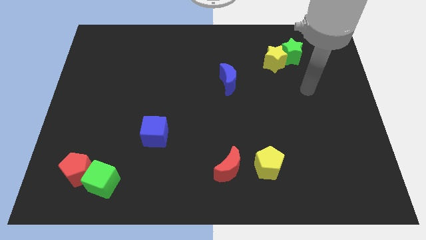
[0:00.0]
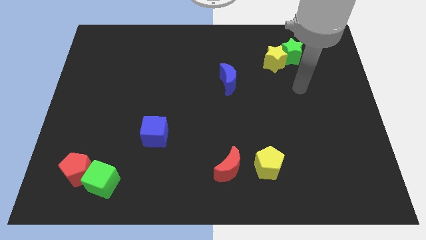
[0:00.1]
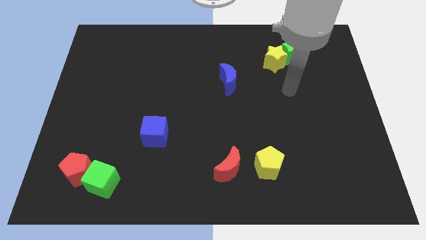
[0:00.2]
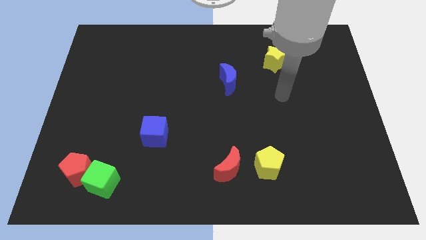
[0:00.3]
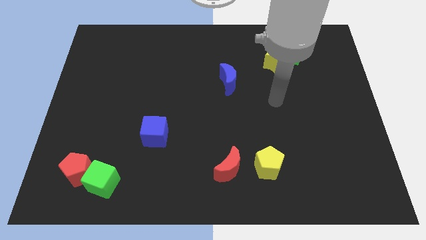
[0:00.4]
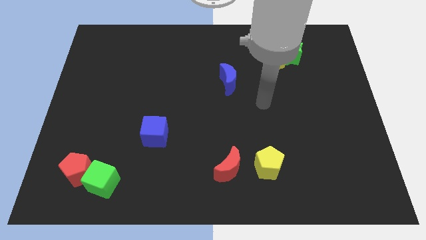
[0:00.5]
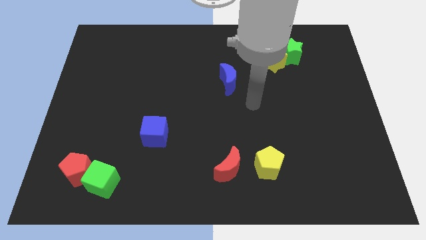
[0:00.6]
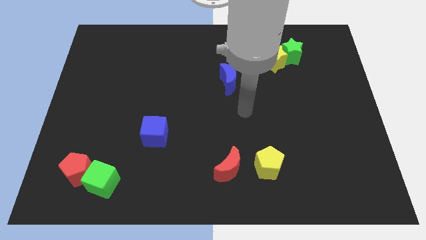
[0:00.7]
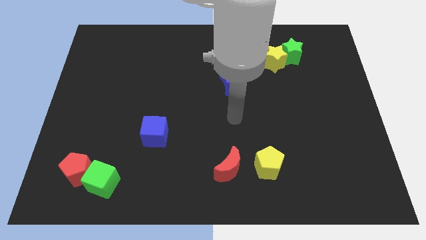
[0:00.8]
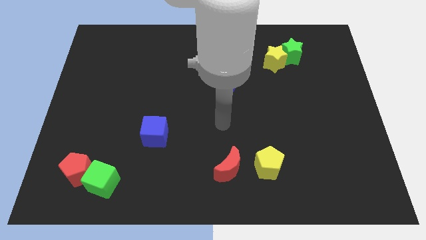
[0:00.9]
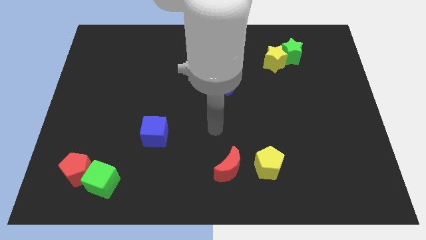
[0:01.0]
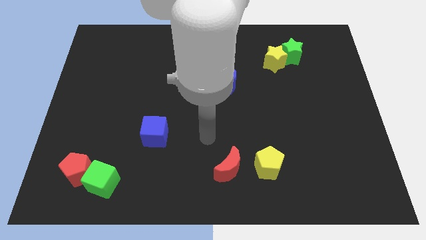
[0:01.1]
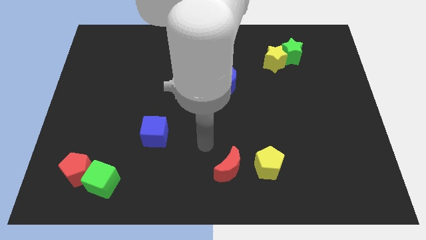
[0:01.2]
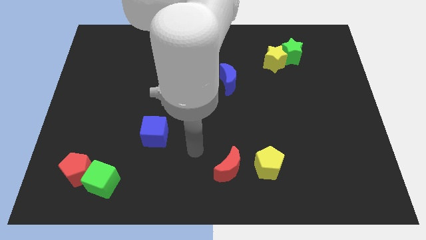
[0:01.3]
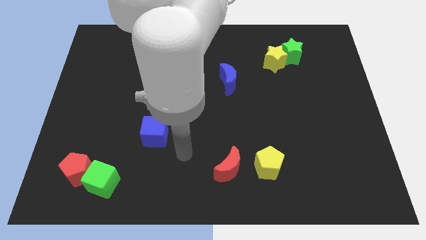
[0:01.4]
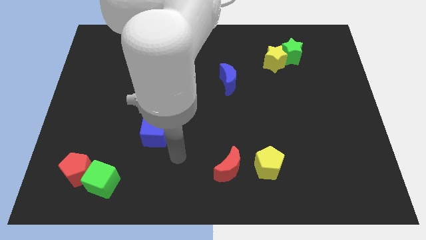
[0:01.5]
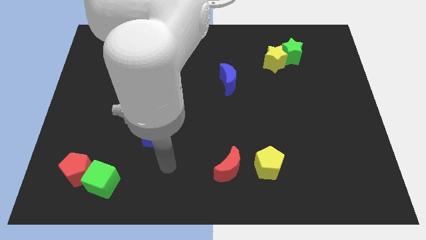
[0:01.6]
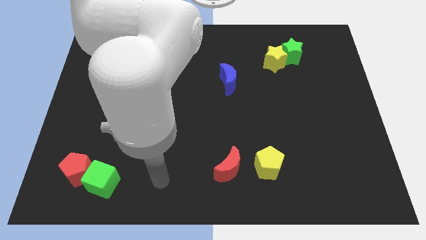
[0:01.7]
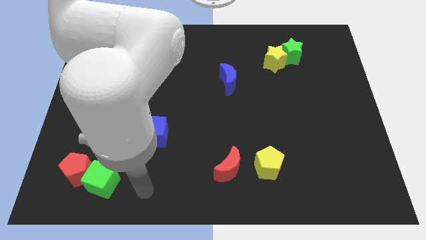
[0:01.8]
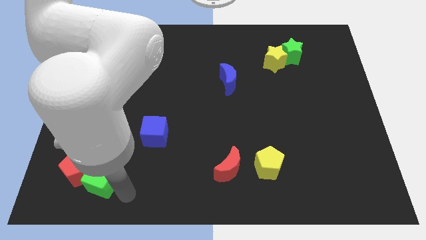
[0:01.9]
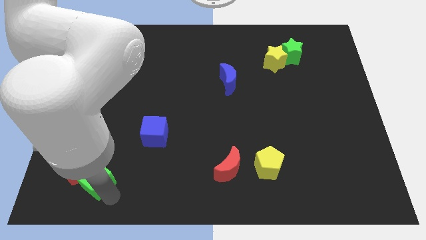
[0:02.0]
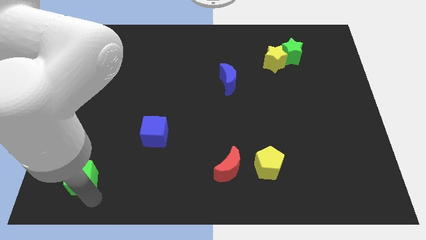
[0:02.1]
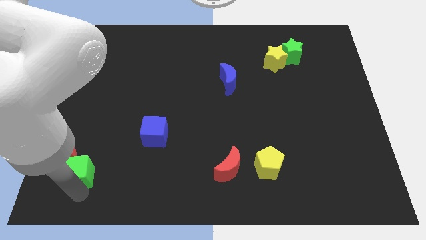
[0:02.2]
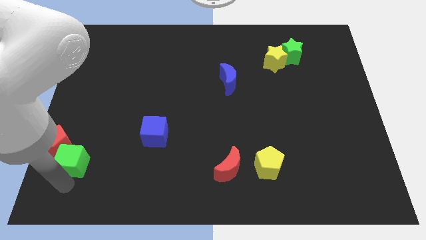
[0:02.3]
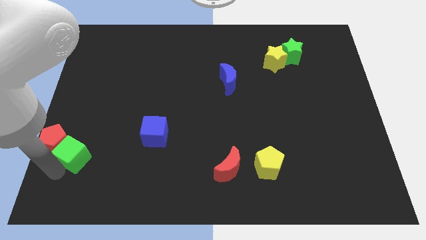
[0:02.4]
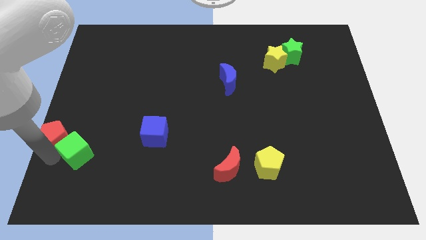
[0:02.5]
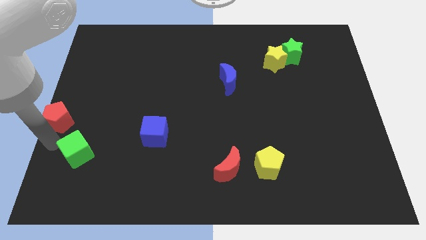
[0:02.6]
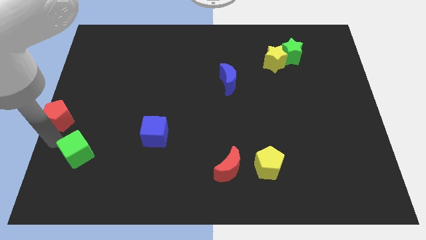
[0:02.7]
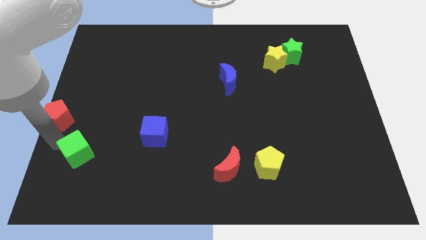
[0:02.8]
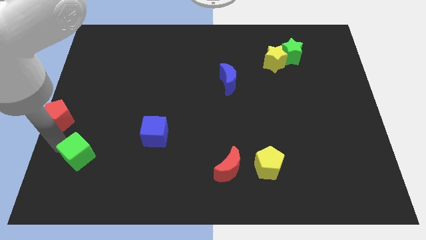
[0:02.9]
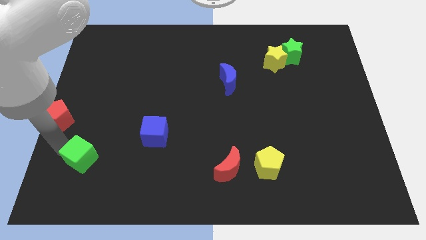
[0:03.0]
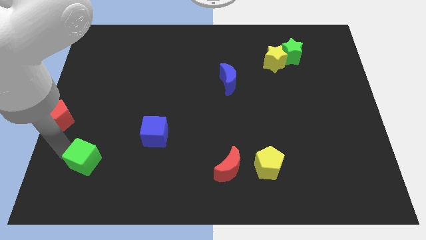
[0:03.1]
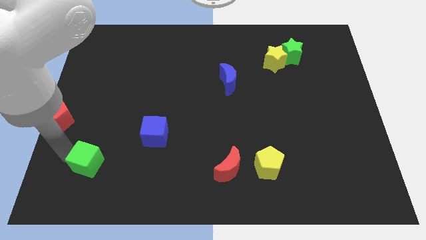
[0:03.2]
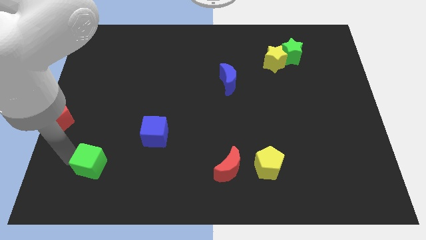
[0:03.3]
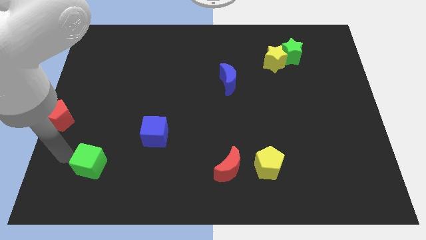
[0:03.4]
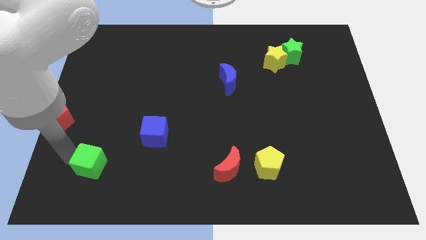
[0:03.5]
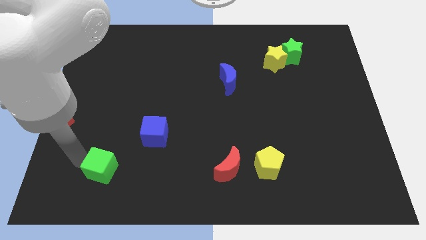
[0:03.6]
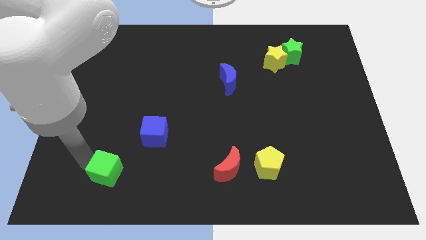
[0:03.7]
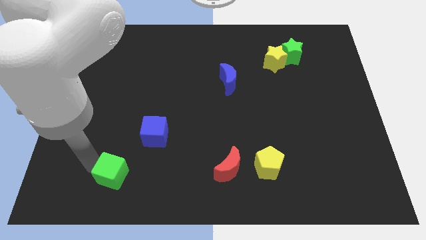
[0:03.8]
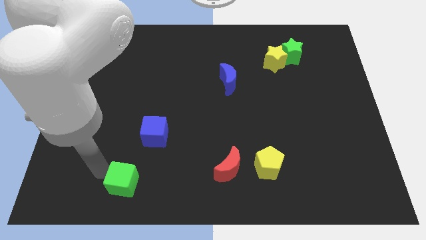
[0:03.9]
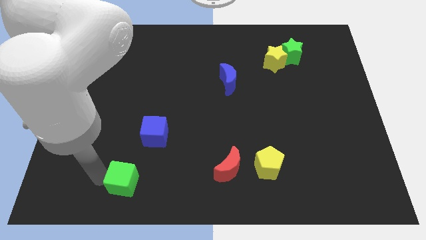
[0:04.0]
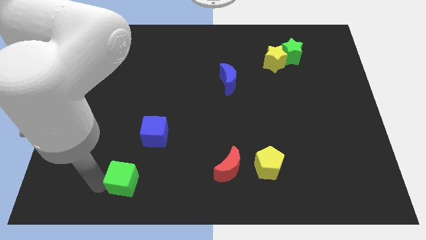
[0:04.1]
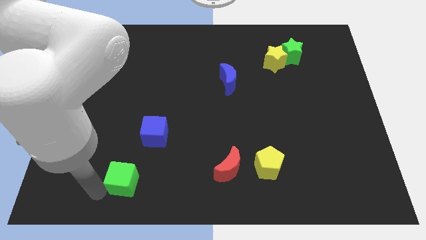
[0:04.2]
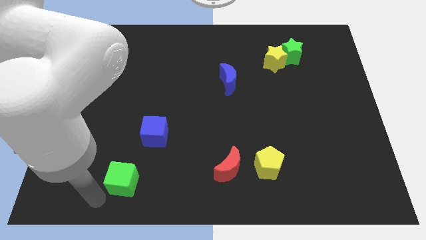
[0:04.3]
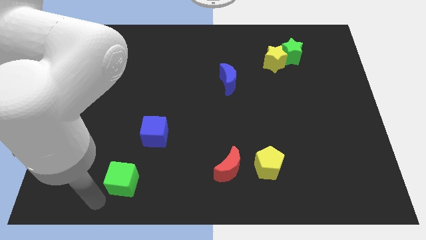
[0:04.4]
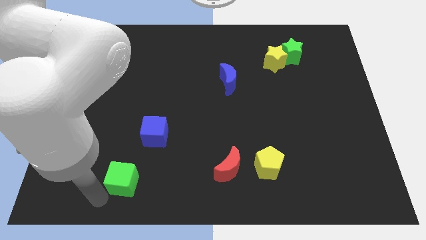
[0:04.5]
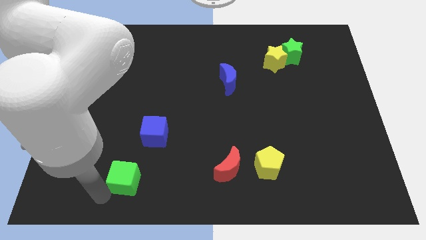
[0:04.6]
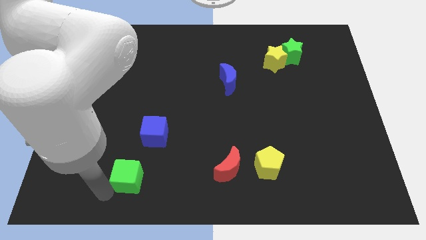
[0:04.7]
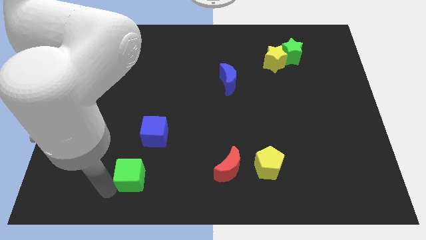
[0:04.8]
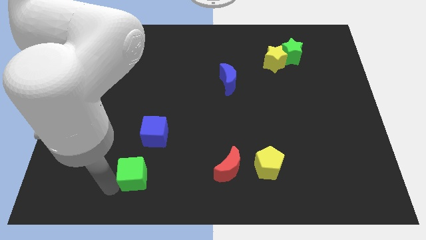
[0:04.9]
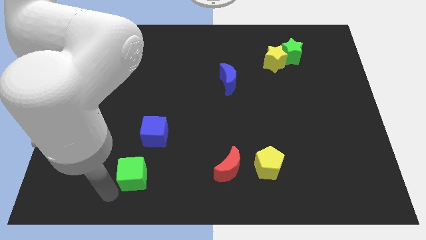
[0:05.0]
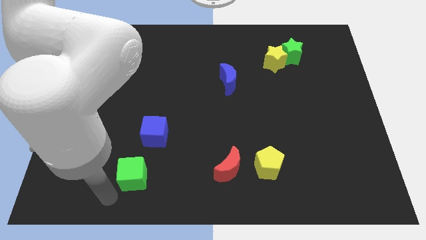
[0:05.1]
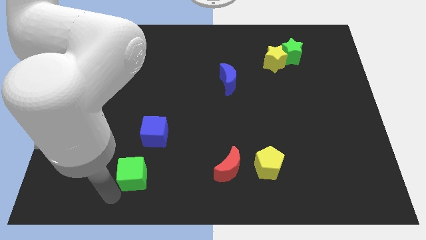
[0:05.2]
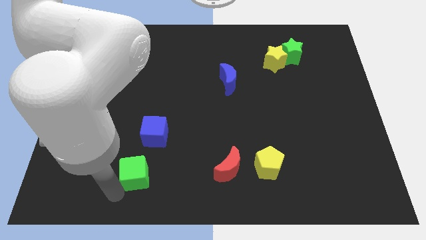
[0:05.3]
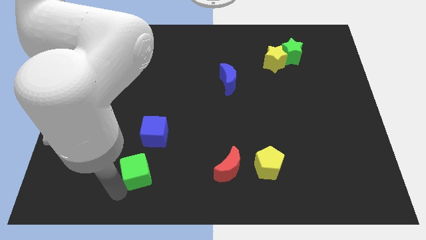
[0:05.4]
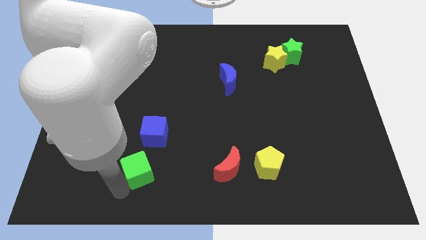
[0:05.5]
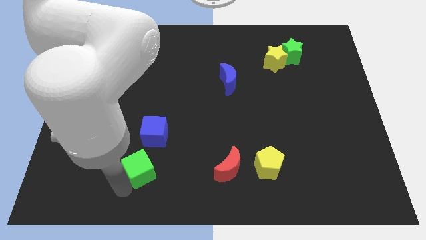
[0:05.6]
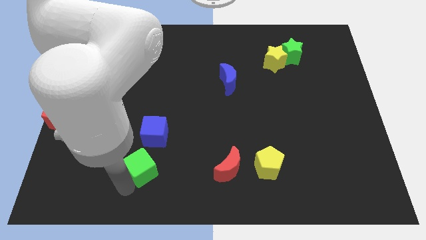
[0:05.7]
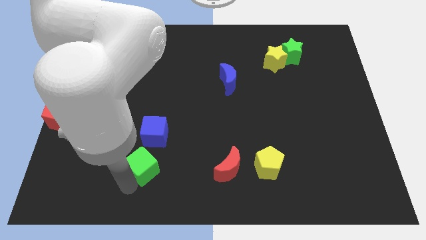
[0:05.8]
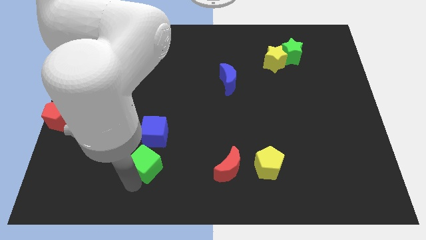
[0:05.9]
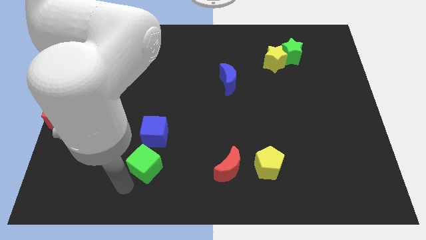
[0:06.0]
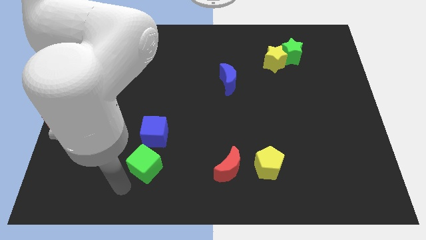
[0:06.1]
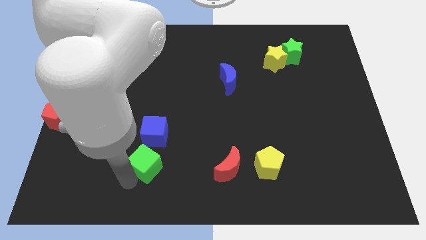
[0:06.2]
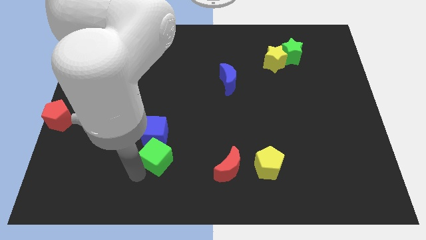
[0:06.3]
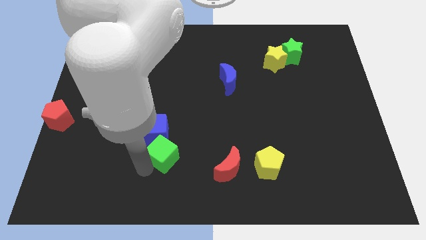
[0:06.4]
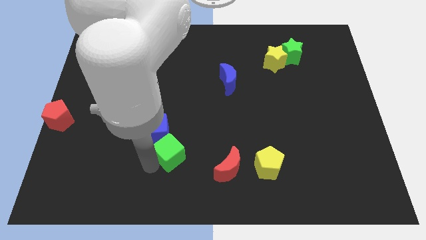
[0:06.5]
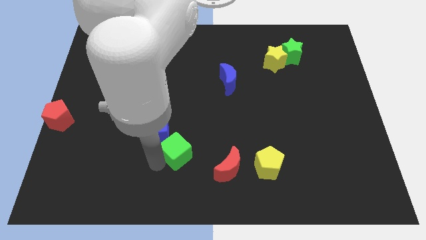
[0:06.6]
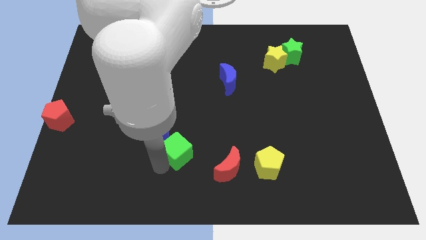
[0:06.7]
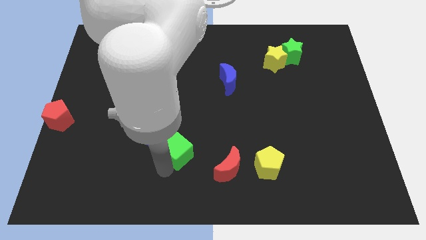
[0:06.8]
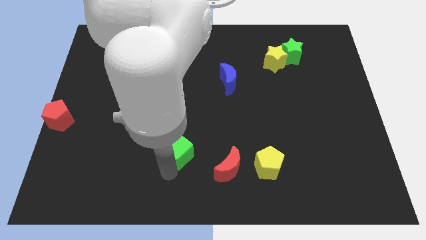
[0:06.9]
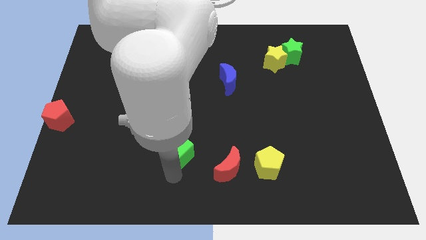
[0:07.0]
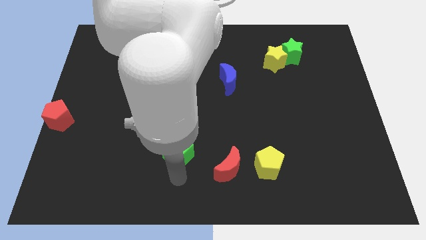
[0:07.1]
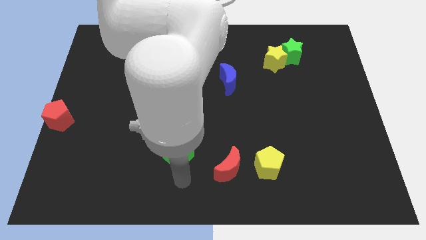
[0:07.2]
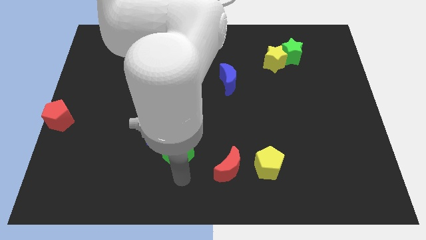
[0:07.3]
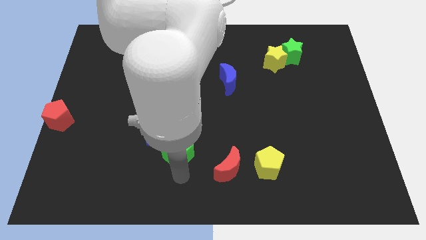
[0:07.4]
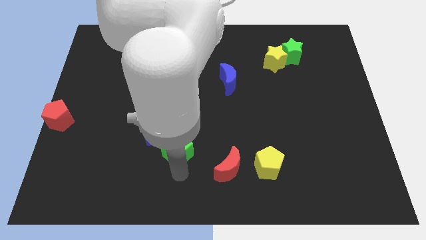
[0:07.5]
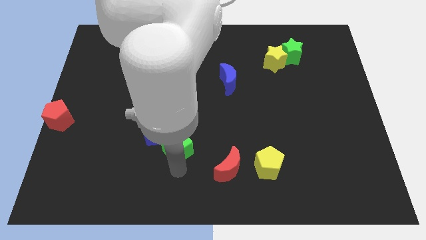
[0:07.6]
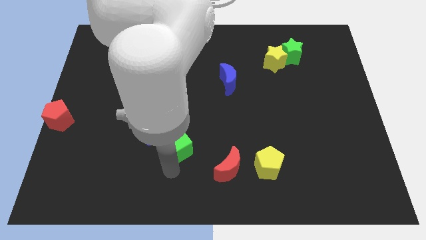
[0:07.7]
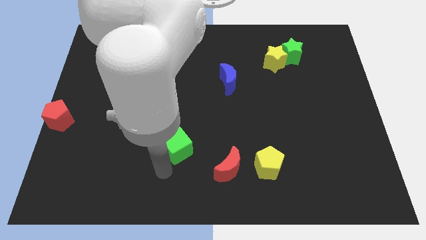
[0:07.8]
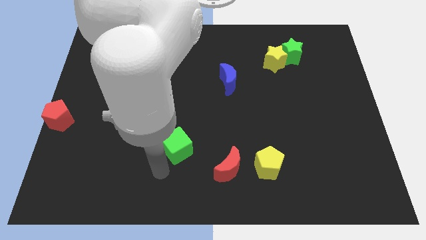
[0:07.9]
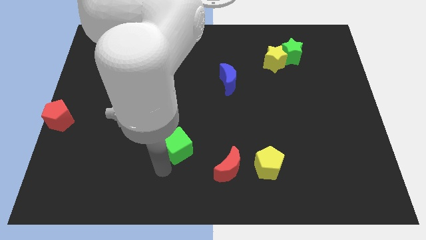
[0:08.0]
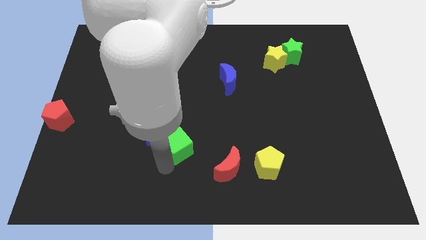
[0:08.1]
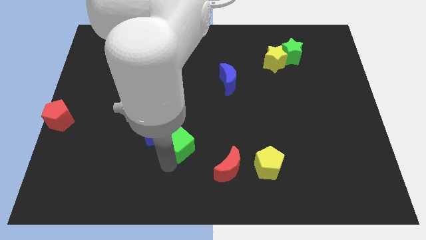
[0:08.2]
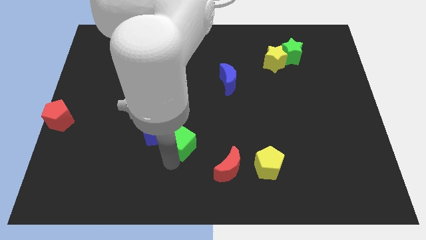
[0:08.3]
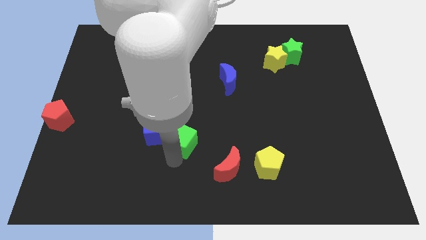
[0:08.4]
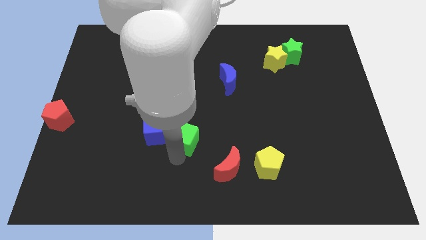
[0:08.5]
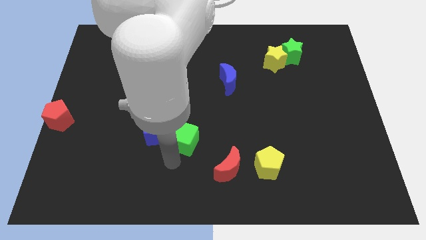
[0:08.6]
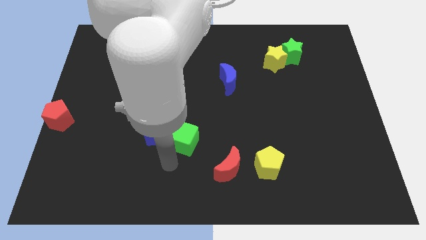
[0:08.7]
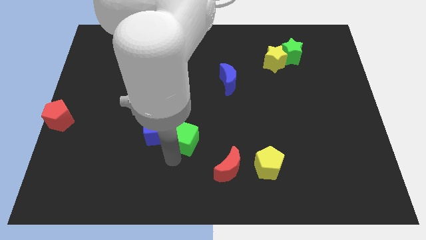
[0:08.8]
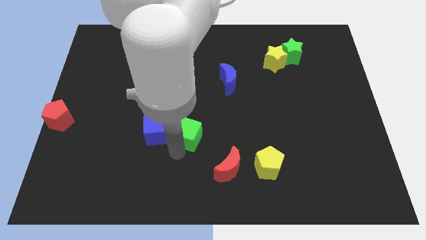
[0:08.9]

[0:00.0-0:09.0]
push the green cube to the center of the board
